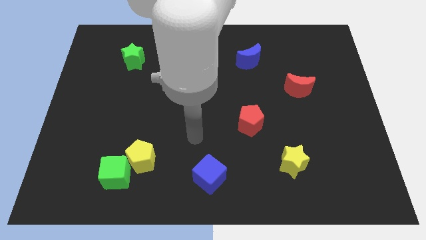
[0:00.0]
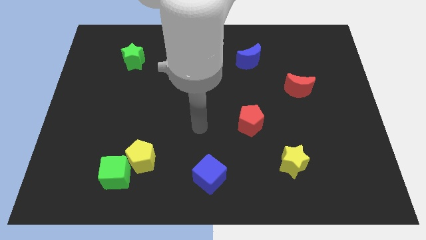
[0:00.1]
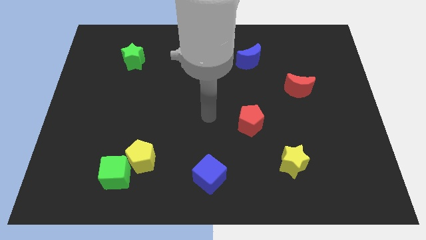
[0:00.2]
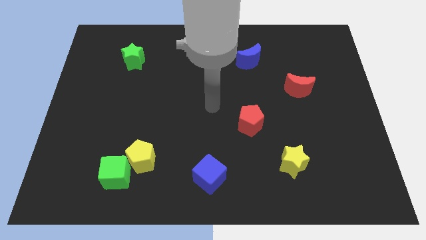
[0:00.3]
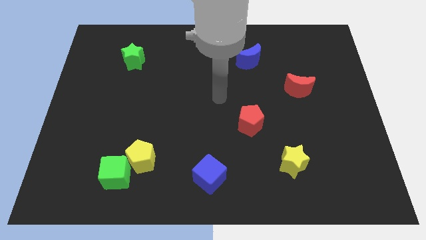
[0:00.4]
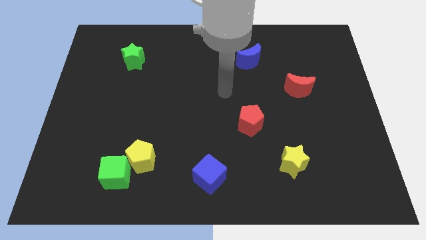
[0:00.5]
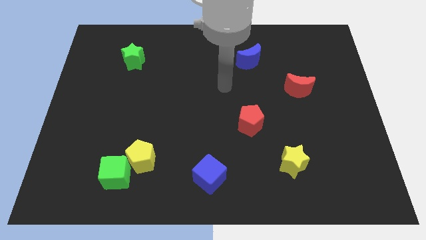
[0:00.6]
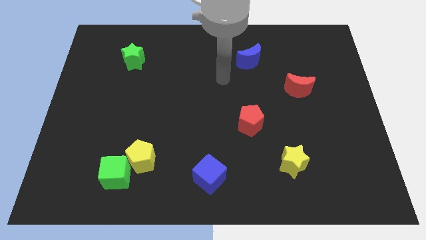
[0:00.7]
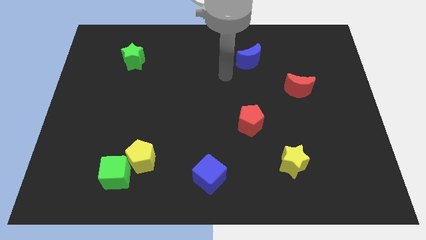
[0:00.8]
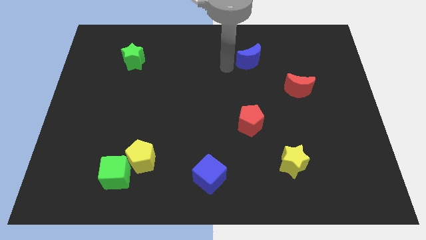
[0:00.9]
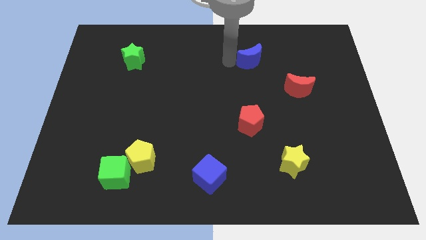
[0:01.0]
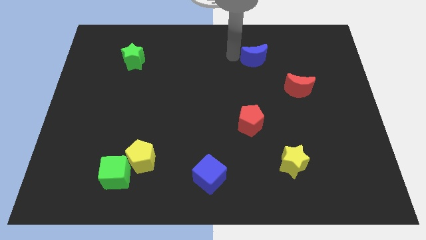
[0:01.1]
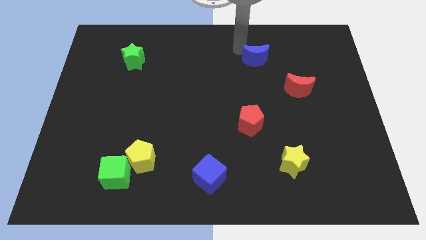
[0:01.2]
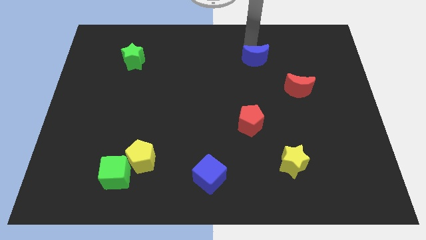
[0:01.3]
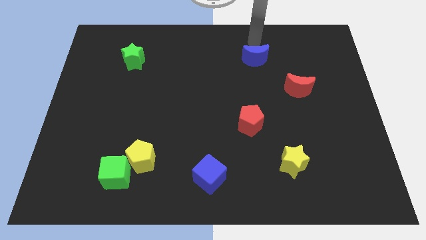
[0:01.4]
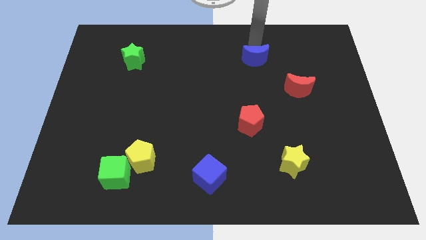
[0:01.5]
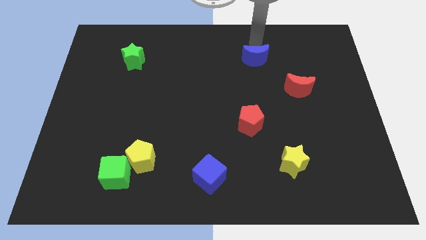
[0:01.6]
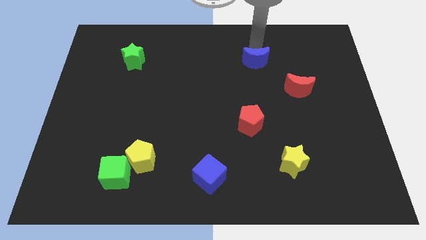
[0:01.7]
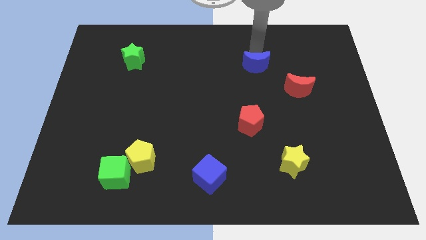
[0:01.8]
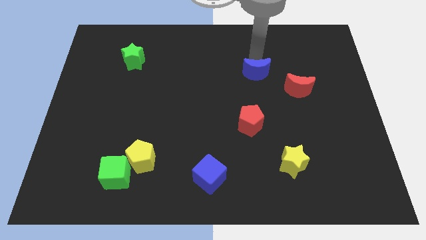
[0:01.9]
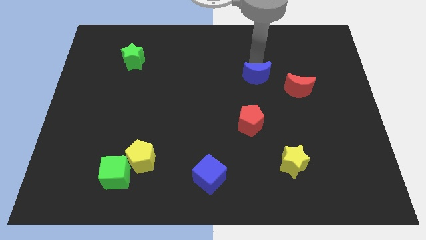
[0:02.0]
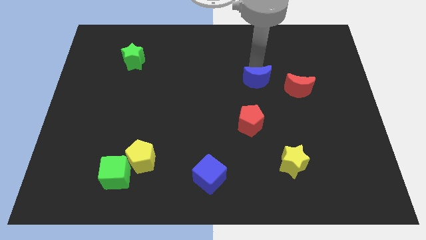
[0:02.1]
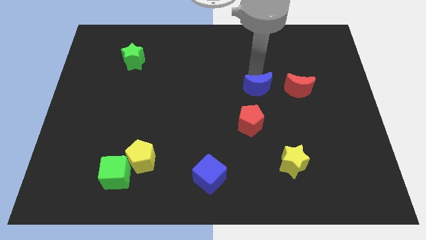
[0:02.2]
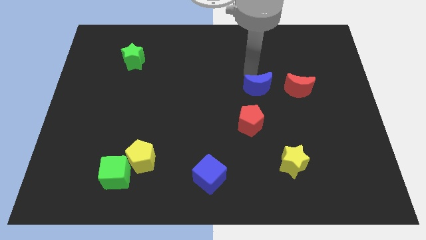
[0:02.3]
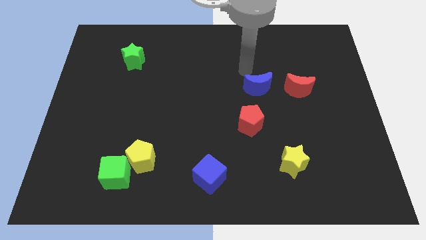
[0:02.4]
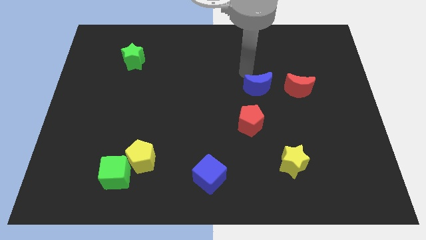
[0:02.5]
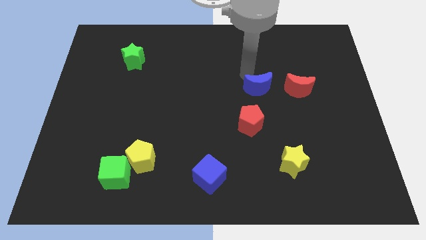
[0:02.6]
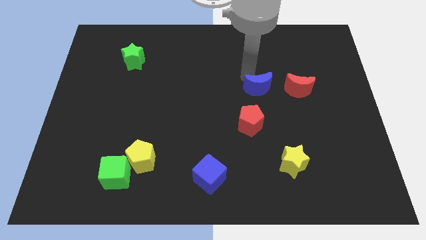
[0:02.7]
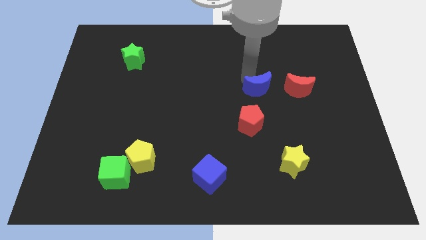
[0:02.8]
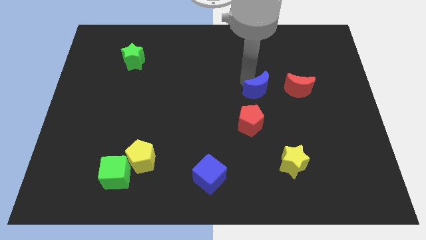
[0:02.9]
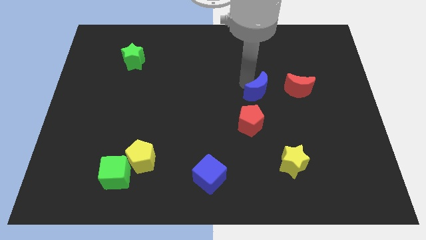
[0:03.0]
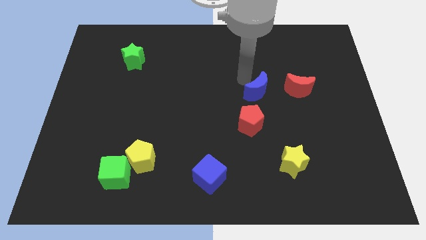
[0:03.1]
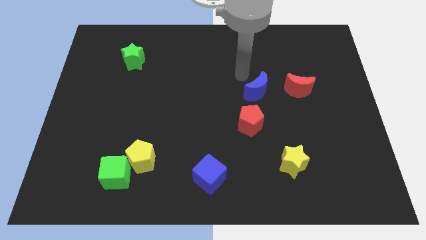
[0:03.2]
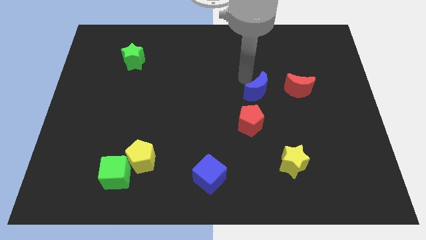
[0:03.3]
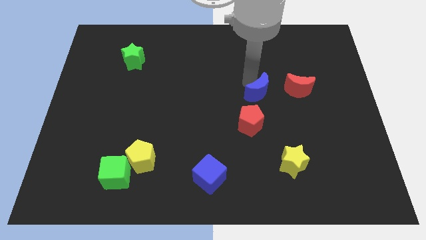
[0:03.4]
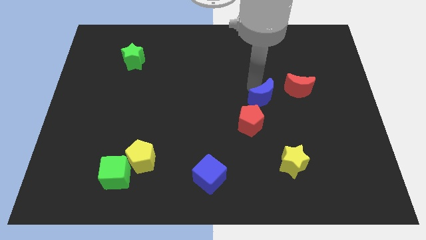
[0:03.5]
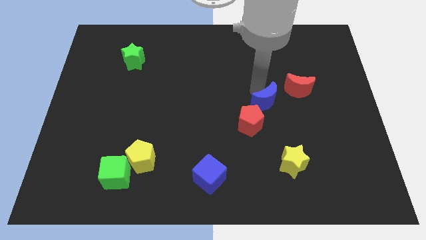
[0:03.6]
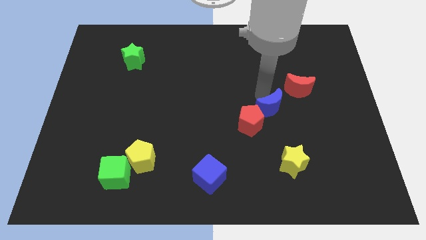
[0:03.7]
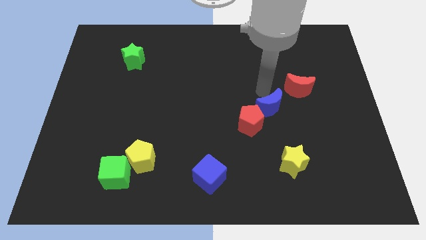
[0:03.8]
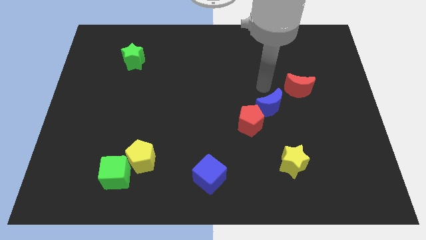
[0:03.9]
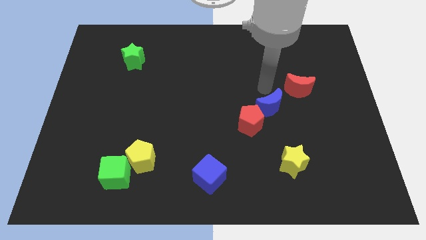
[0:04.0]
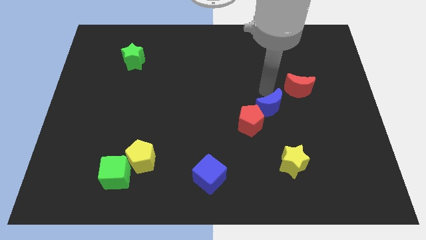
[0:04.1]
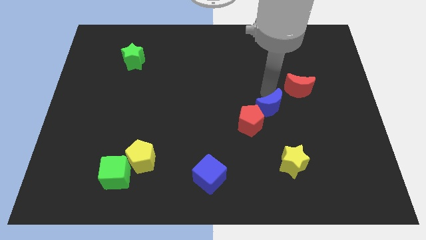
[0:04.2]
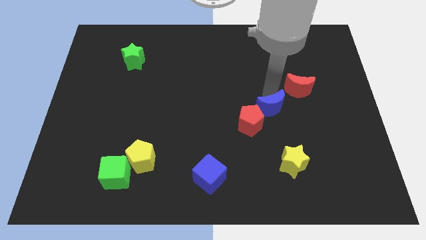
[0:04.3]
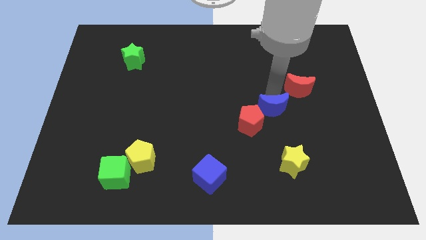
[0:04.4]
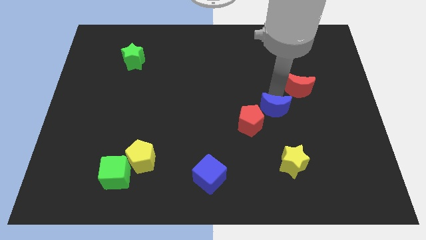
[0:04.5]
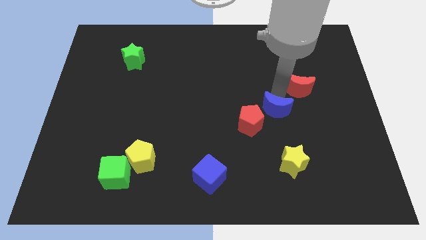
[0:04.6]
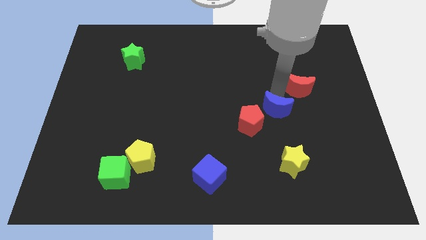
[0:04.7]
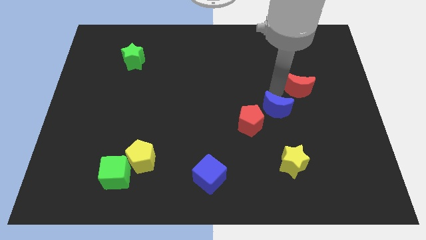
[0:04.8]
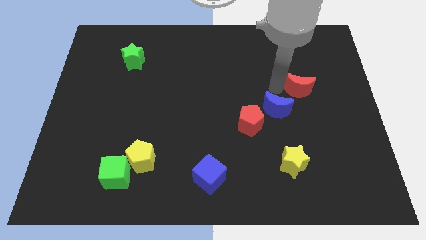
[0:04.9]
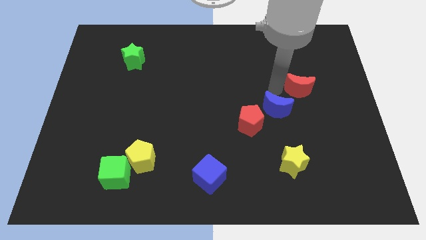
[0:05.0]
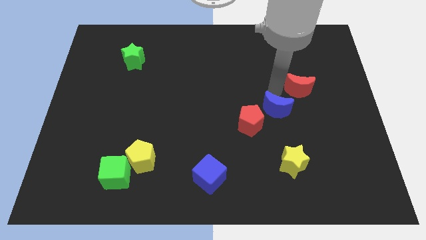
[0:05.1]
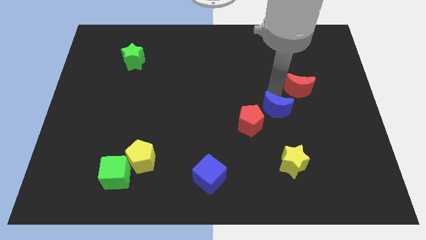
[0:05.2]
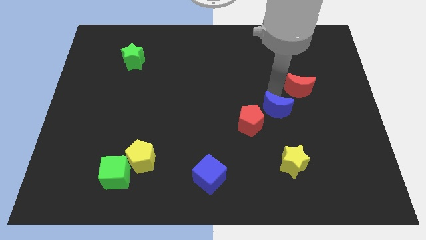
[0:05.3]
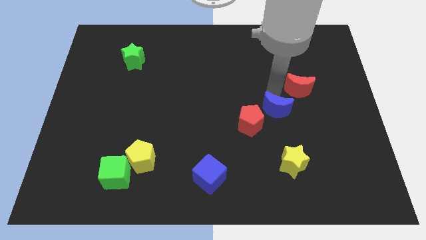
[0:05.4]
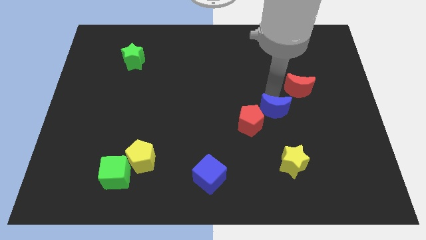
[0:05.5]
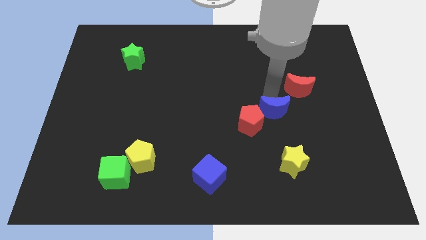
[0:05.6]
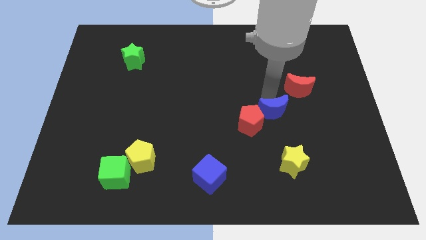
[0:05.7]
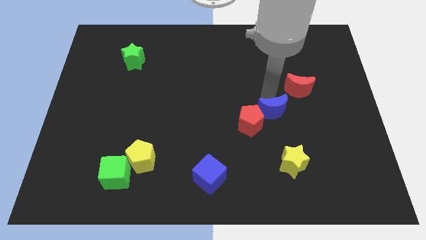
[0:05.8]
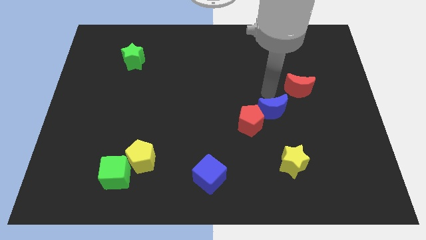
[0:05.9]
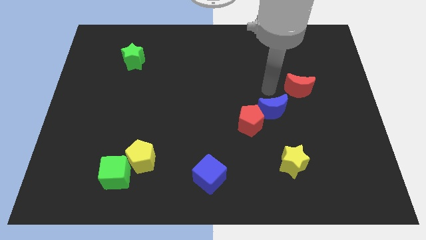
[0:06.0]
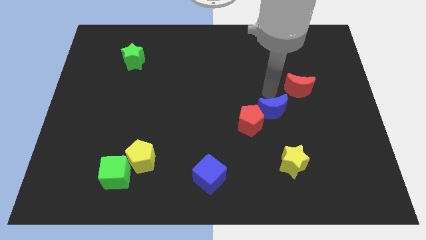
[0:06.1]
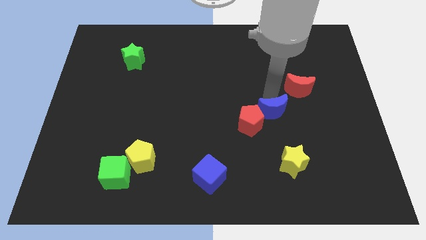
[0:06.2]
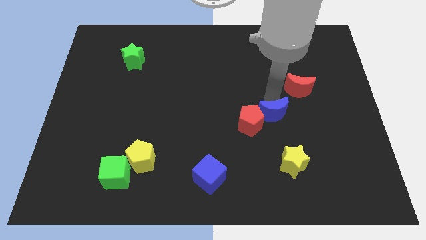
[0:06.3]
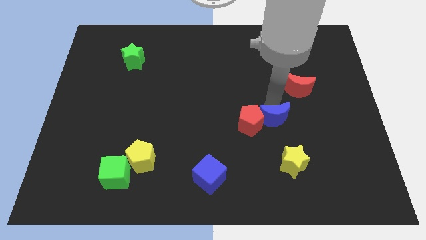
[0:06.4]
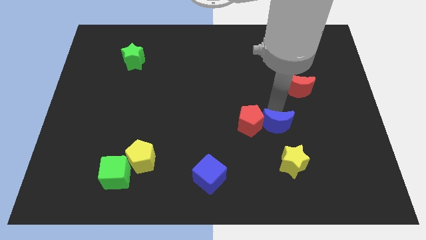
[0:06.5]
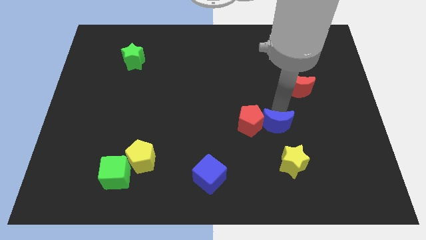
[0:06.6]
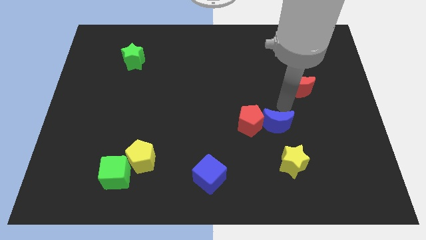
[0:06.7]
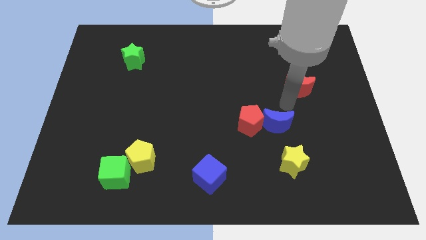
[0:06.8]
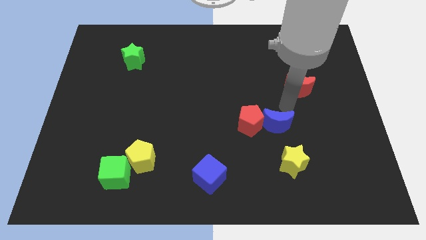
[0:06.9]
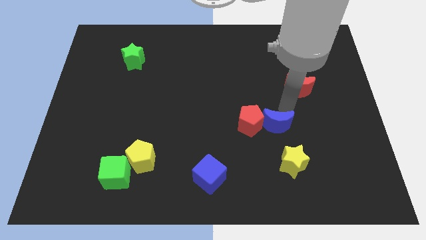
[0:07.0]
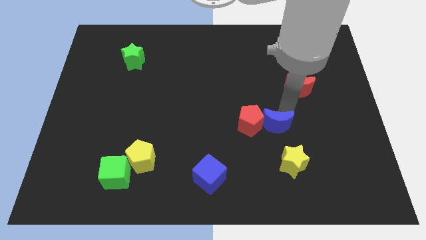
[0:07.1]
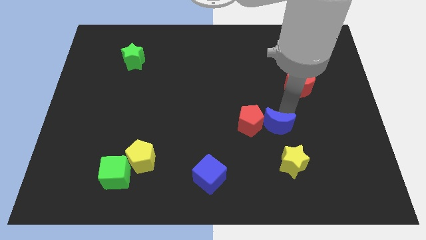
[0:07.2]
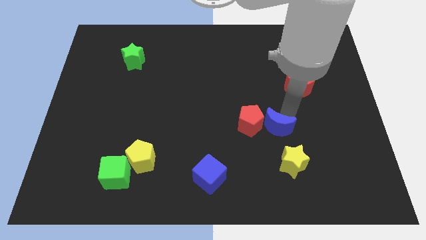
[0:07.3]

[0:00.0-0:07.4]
put the blue moon to the top left of the yellow star
